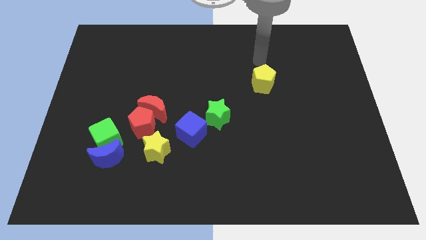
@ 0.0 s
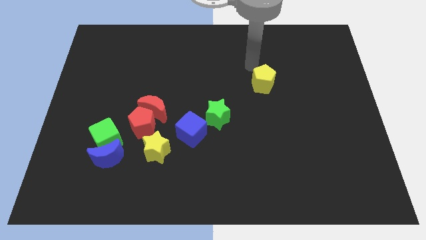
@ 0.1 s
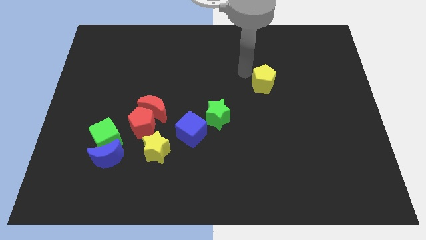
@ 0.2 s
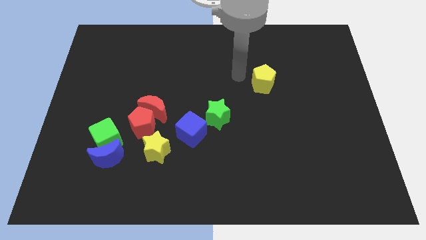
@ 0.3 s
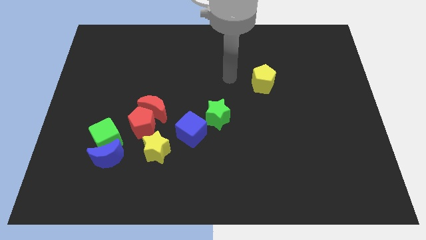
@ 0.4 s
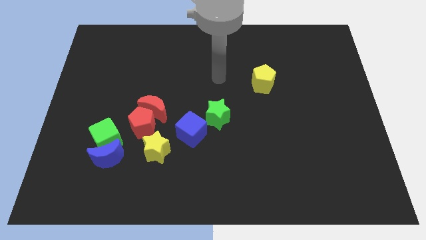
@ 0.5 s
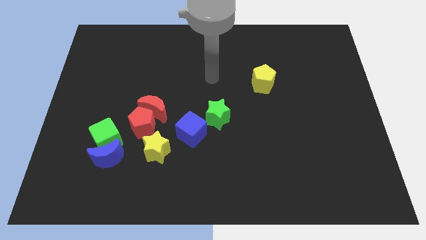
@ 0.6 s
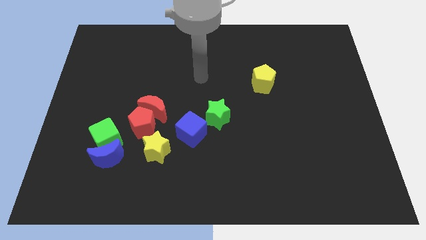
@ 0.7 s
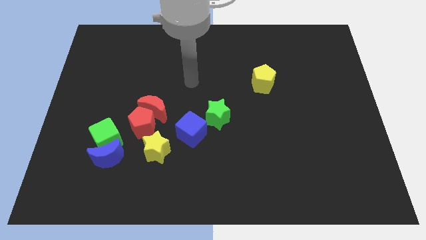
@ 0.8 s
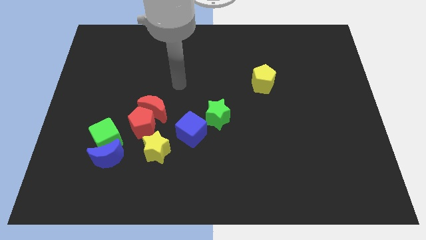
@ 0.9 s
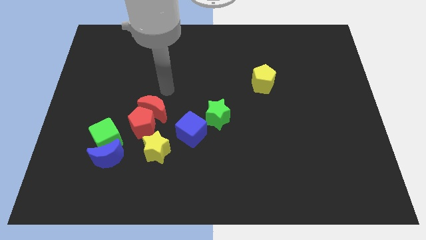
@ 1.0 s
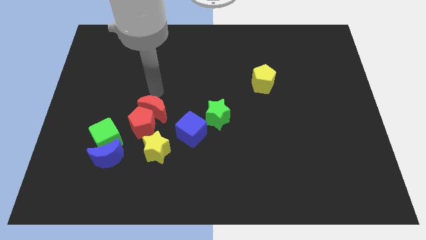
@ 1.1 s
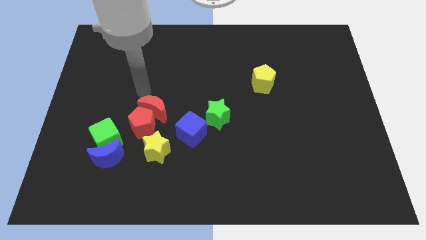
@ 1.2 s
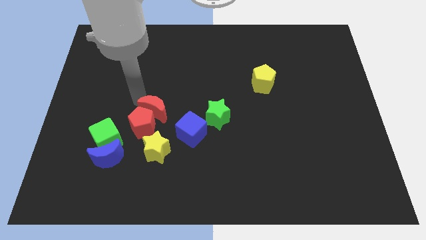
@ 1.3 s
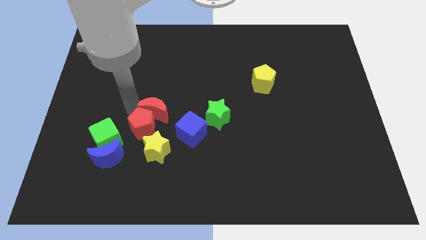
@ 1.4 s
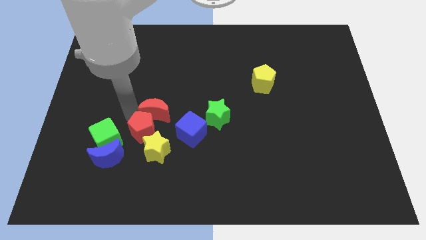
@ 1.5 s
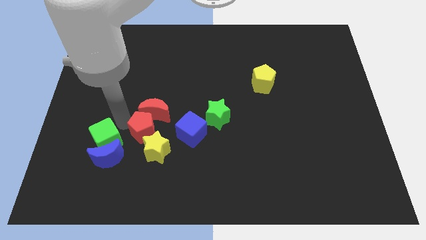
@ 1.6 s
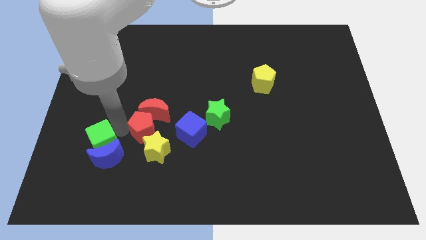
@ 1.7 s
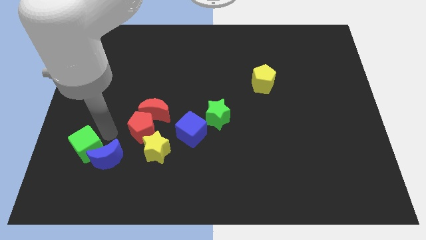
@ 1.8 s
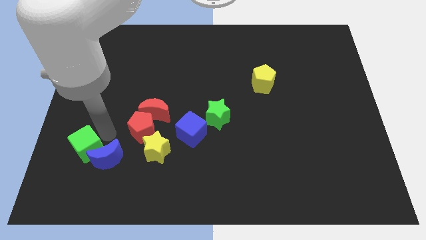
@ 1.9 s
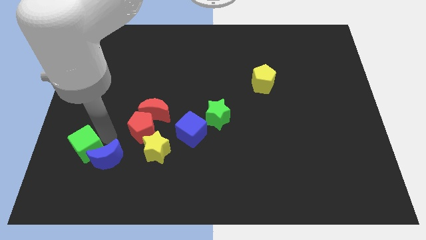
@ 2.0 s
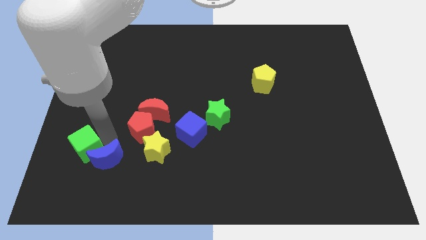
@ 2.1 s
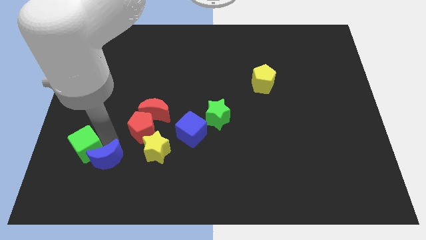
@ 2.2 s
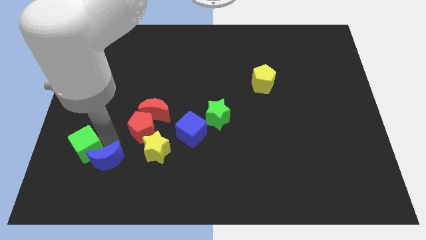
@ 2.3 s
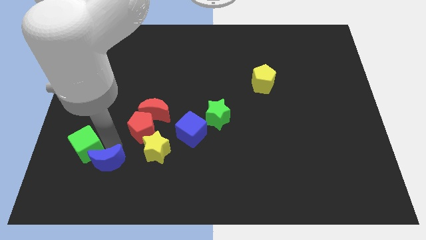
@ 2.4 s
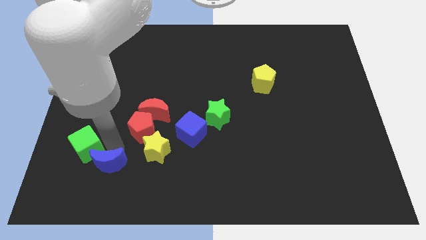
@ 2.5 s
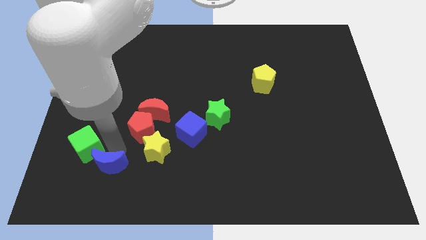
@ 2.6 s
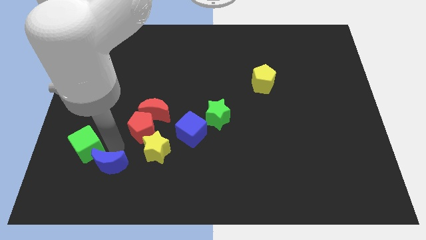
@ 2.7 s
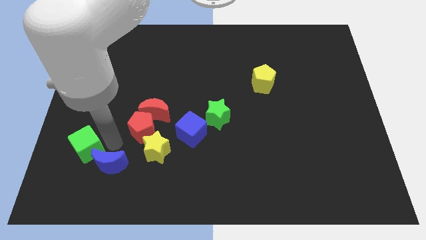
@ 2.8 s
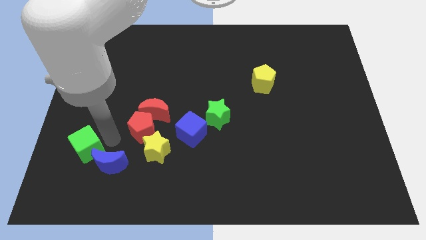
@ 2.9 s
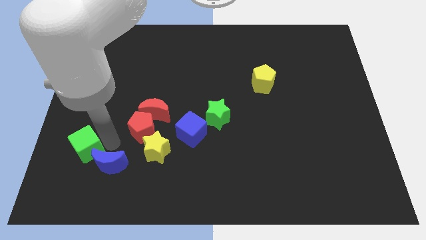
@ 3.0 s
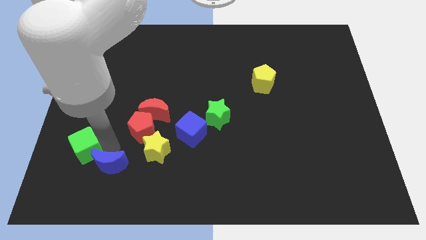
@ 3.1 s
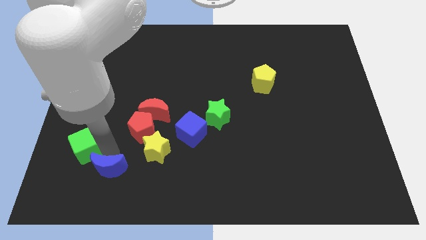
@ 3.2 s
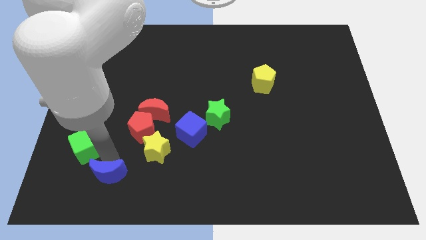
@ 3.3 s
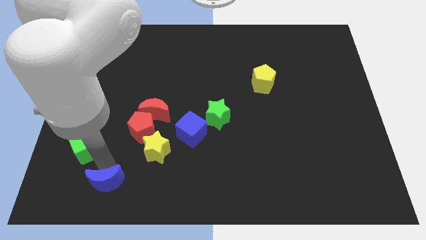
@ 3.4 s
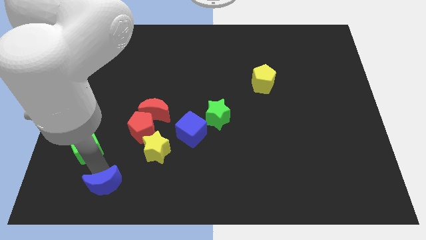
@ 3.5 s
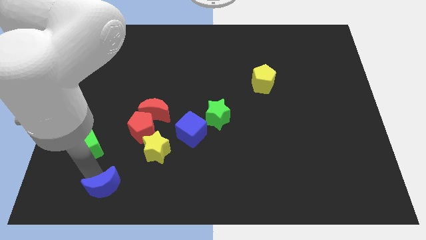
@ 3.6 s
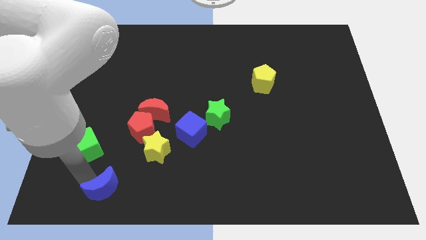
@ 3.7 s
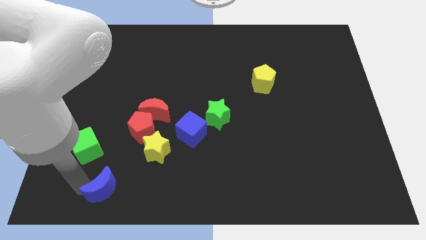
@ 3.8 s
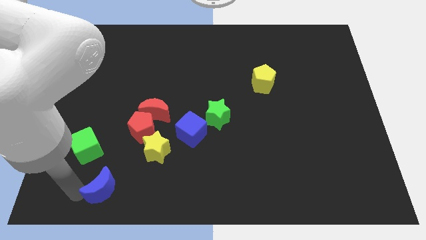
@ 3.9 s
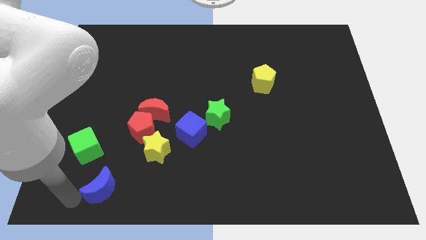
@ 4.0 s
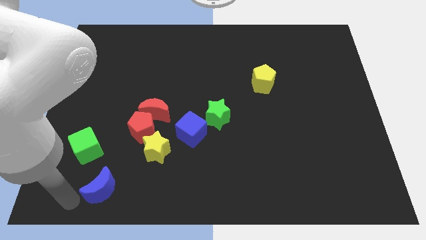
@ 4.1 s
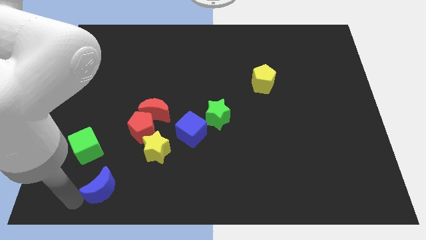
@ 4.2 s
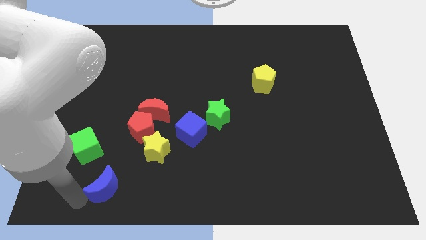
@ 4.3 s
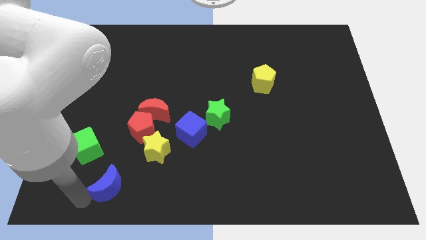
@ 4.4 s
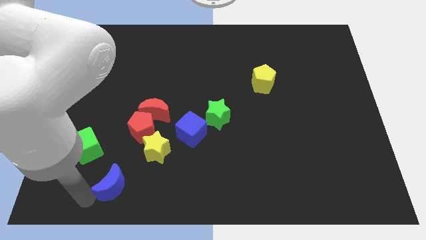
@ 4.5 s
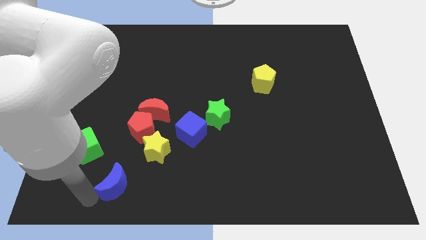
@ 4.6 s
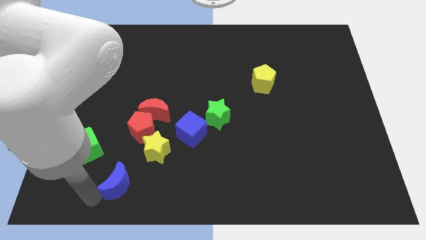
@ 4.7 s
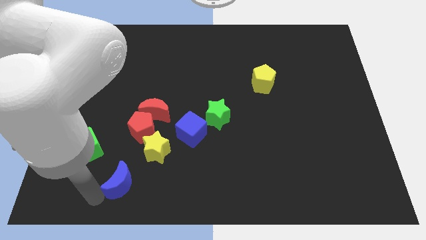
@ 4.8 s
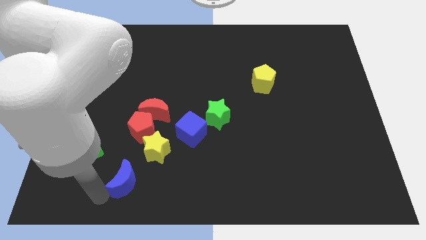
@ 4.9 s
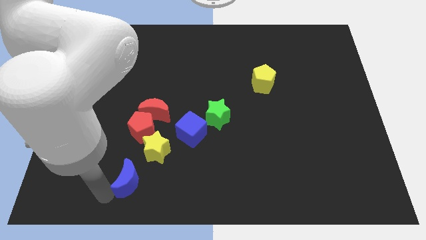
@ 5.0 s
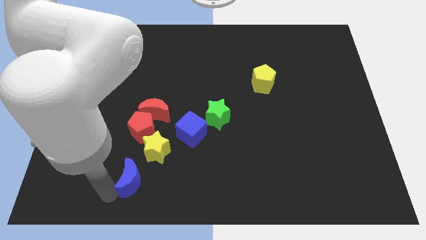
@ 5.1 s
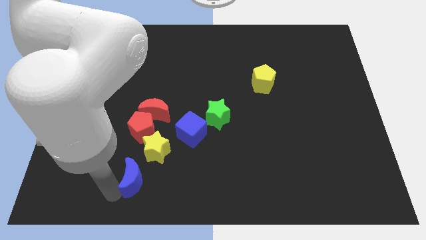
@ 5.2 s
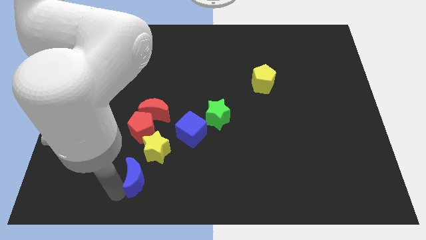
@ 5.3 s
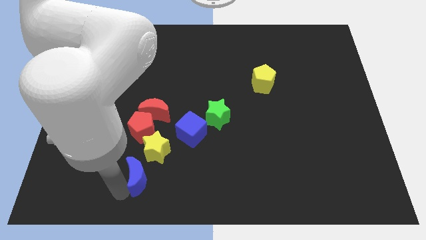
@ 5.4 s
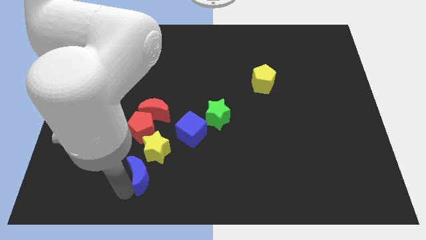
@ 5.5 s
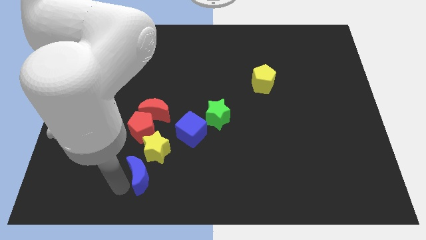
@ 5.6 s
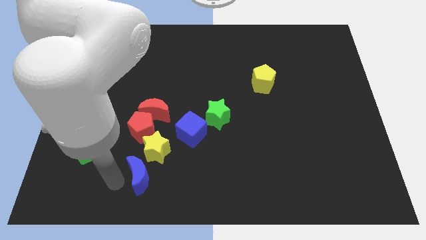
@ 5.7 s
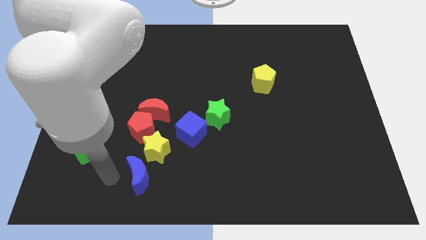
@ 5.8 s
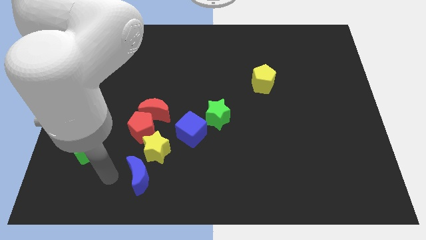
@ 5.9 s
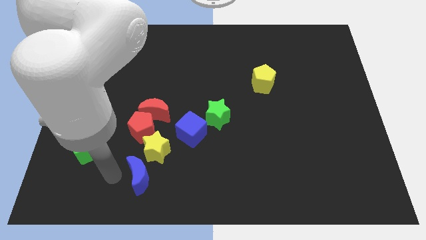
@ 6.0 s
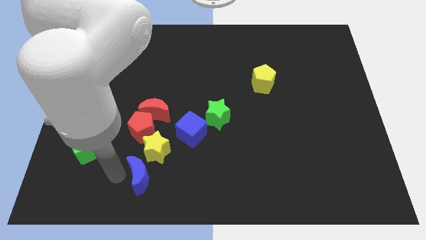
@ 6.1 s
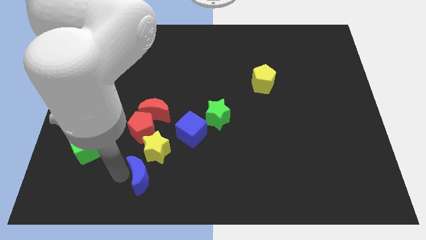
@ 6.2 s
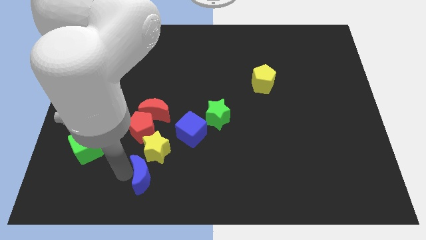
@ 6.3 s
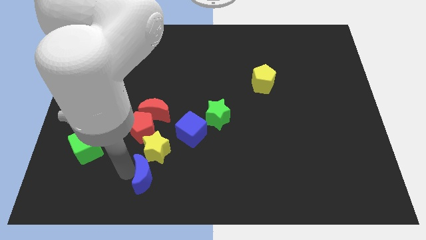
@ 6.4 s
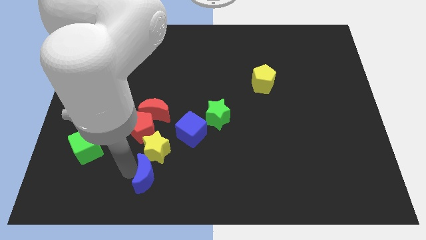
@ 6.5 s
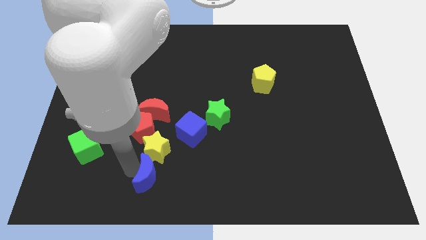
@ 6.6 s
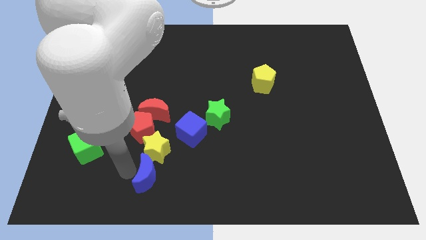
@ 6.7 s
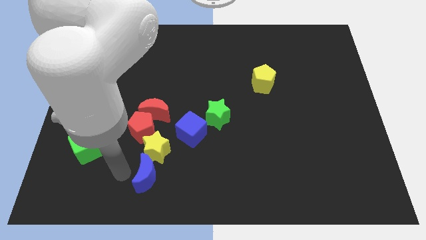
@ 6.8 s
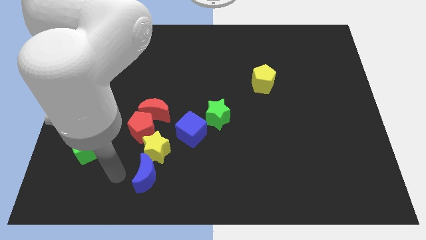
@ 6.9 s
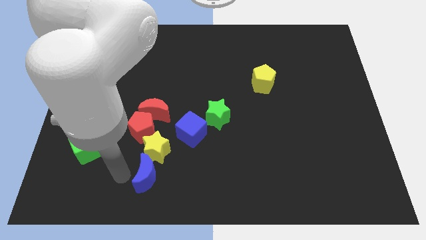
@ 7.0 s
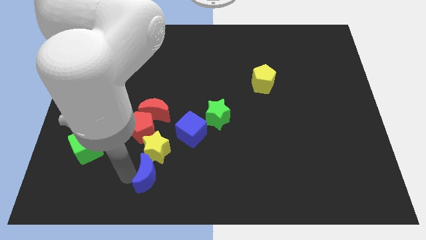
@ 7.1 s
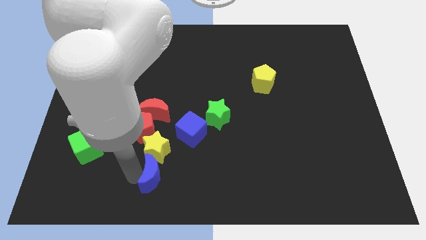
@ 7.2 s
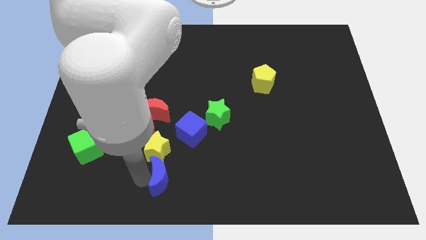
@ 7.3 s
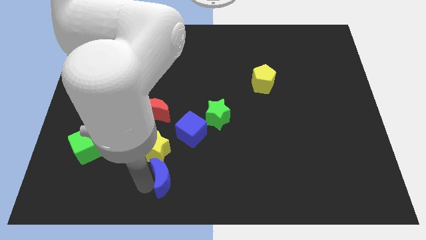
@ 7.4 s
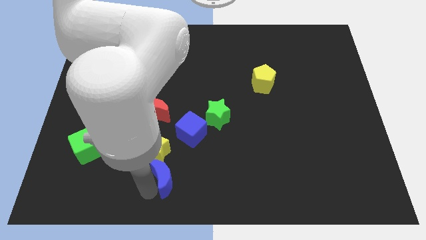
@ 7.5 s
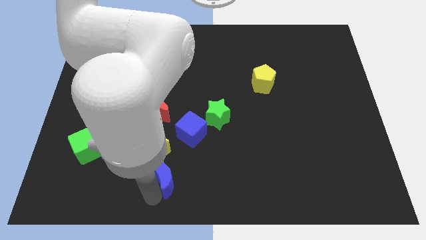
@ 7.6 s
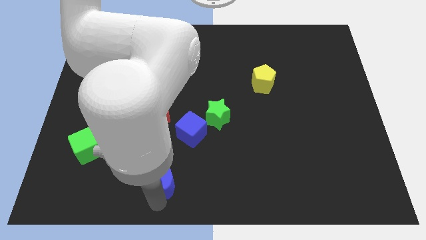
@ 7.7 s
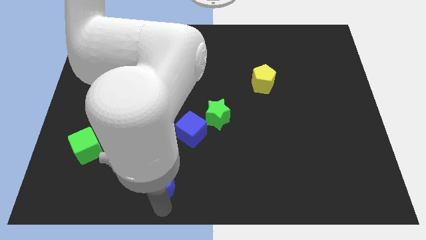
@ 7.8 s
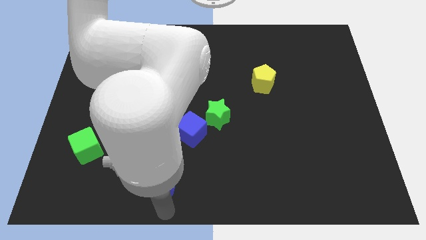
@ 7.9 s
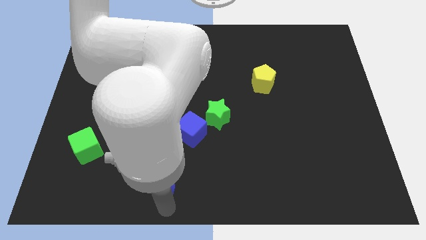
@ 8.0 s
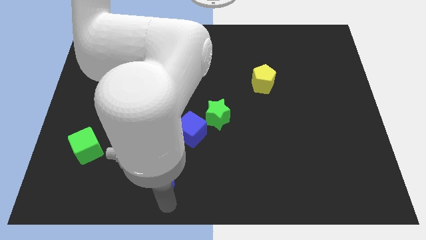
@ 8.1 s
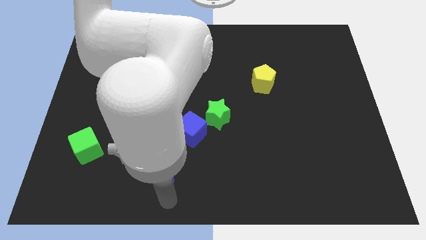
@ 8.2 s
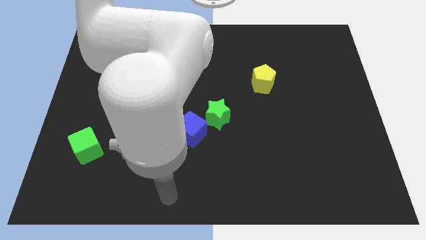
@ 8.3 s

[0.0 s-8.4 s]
push the blue moon to the bottom right of the red pentagon
